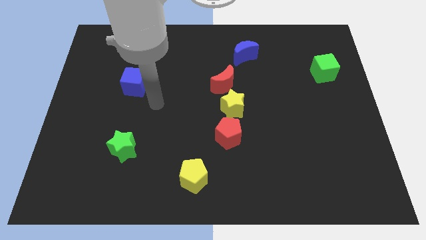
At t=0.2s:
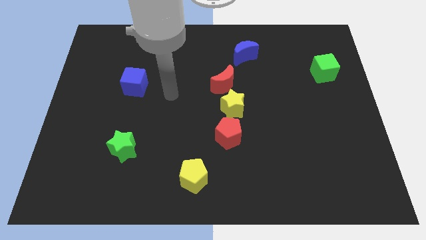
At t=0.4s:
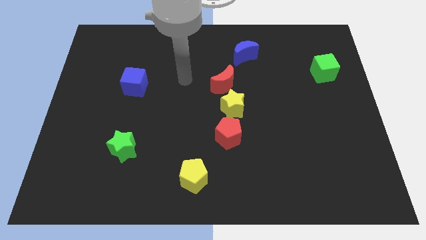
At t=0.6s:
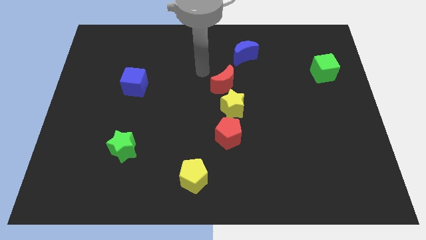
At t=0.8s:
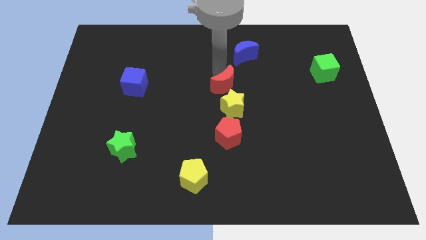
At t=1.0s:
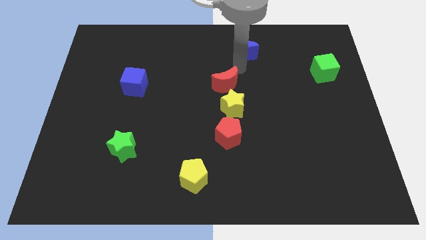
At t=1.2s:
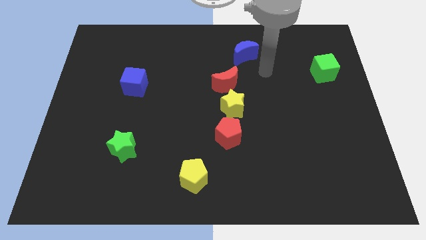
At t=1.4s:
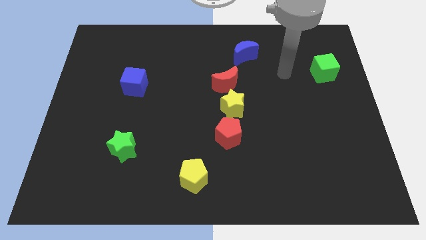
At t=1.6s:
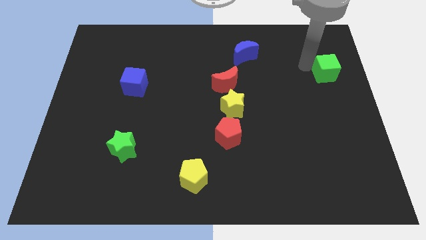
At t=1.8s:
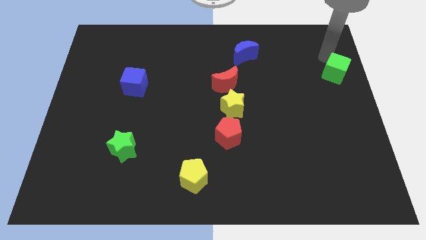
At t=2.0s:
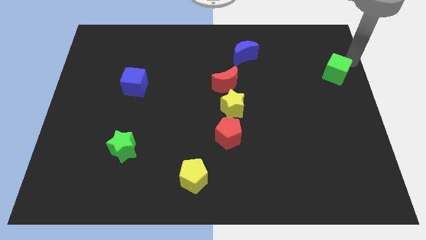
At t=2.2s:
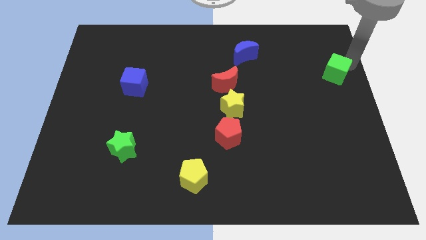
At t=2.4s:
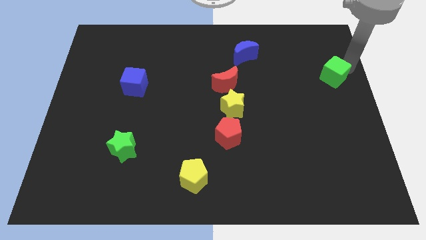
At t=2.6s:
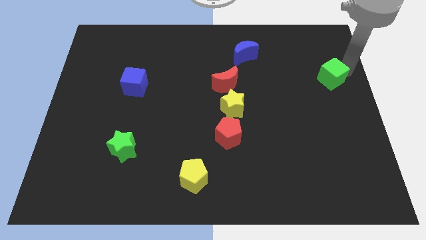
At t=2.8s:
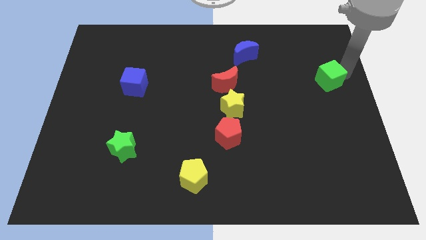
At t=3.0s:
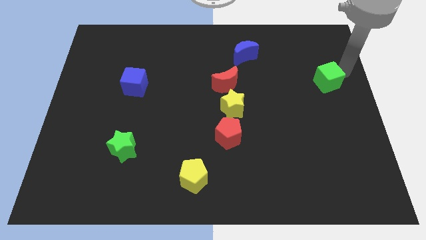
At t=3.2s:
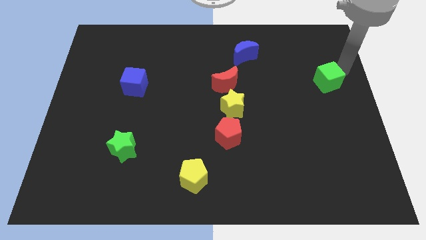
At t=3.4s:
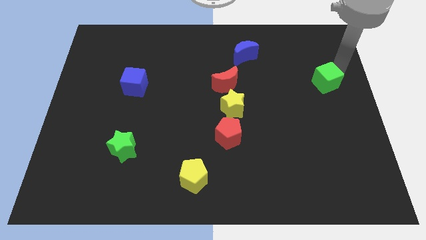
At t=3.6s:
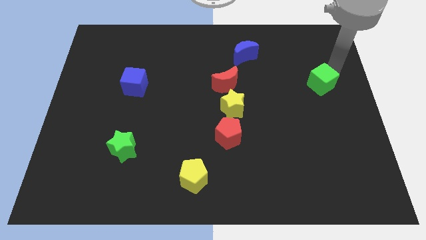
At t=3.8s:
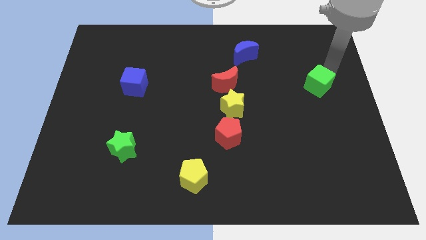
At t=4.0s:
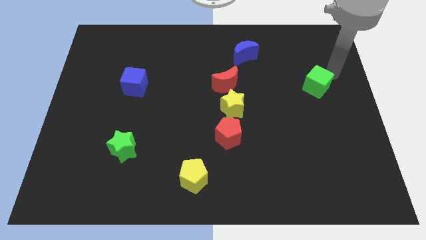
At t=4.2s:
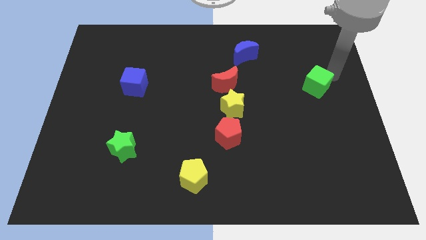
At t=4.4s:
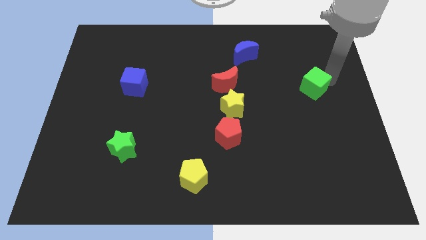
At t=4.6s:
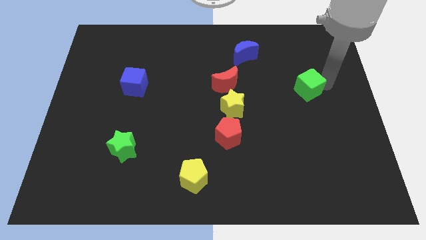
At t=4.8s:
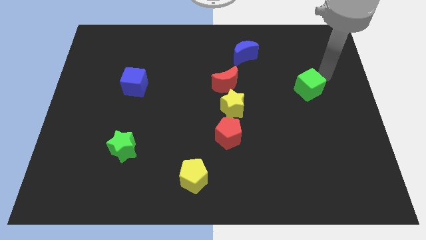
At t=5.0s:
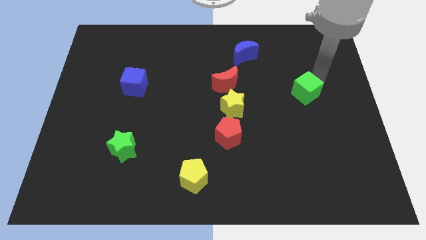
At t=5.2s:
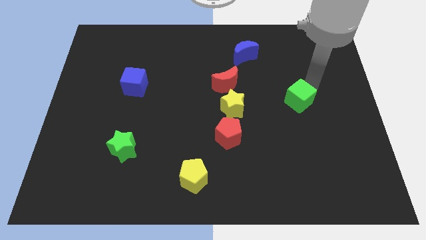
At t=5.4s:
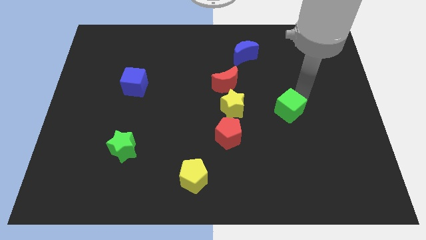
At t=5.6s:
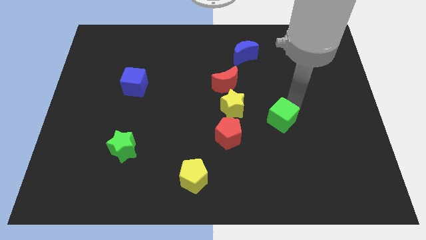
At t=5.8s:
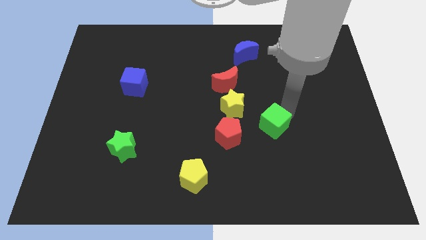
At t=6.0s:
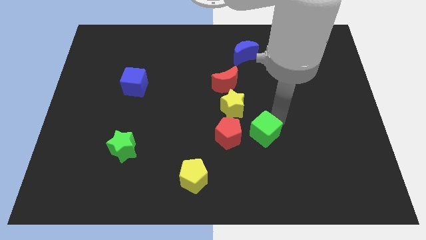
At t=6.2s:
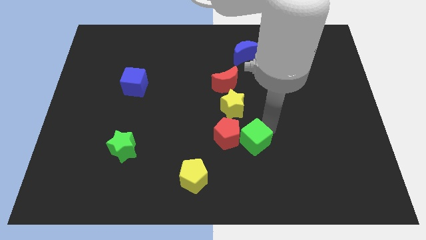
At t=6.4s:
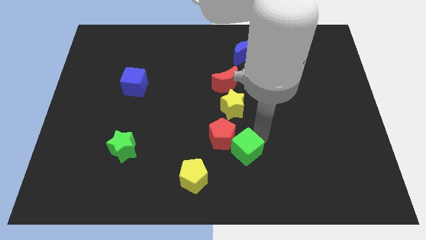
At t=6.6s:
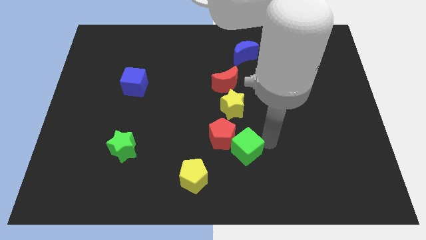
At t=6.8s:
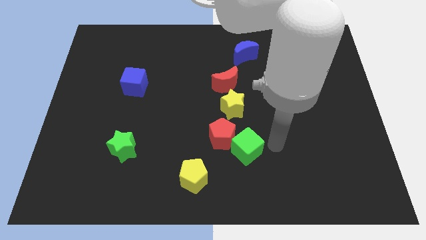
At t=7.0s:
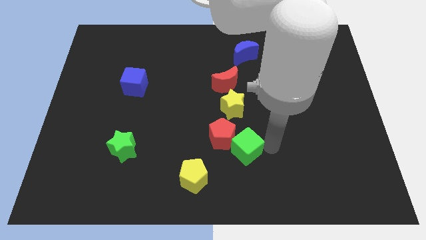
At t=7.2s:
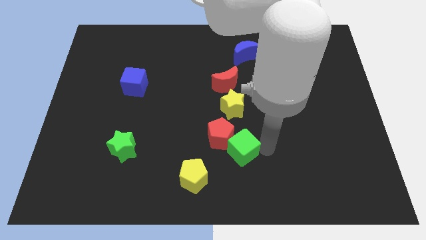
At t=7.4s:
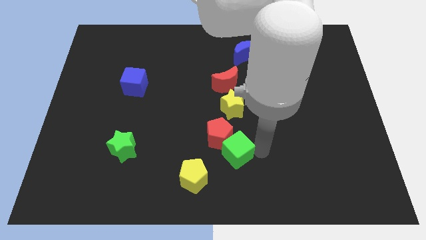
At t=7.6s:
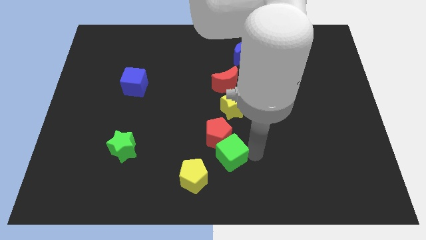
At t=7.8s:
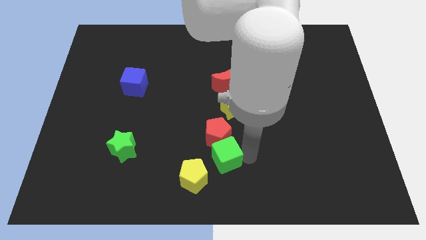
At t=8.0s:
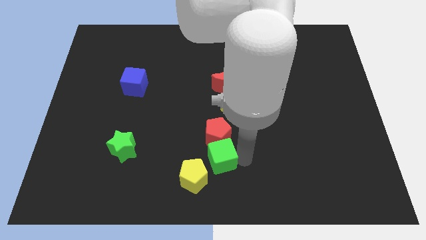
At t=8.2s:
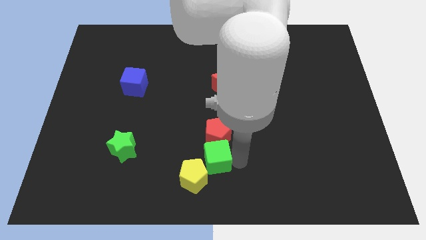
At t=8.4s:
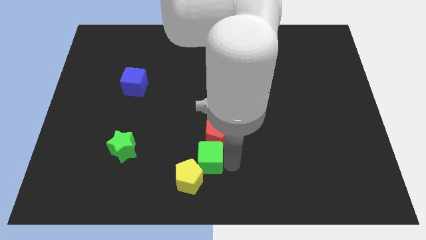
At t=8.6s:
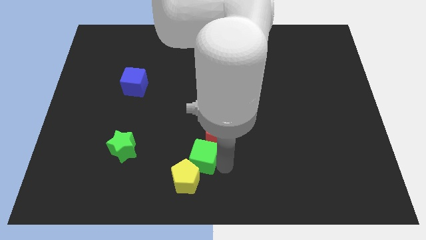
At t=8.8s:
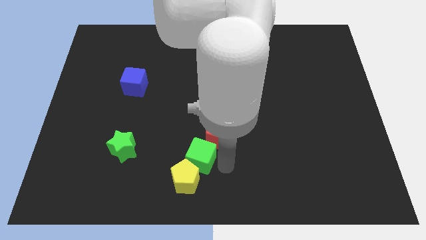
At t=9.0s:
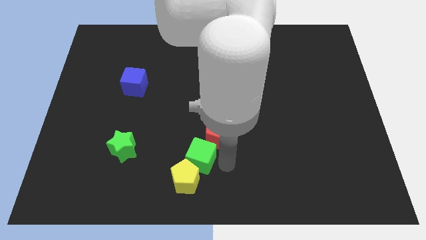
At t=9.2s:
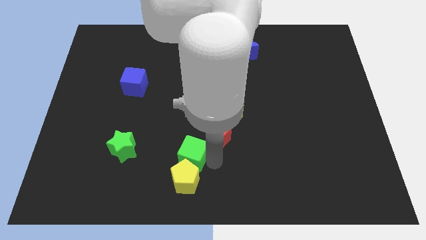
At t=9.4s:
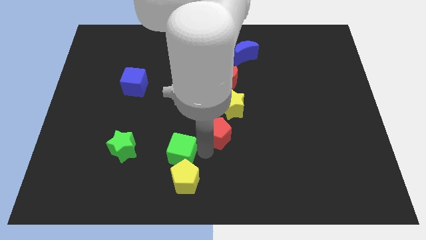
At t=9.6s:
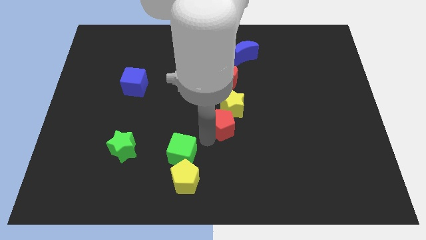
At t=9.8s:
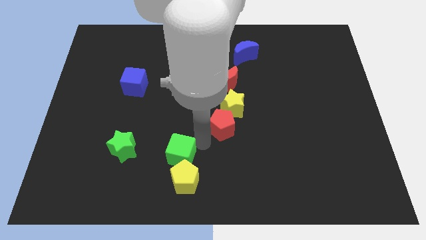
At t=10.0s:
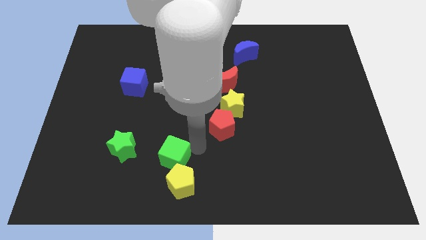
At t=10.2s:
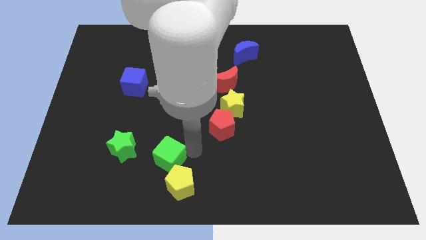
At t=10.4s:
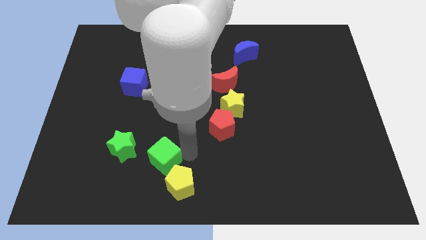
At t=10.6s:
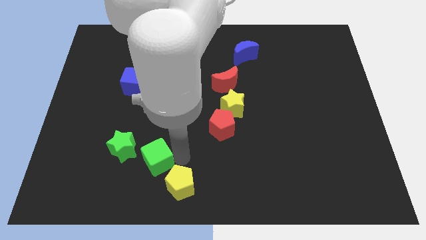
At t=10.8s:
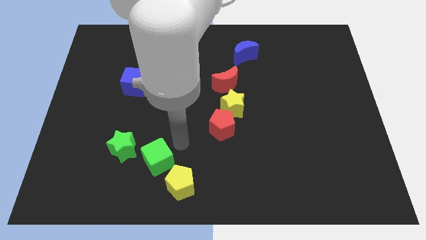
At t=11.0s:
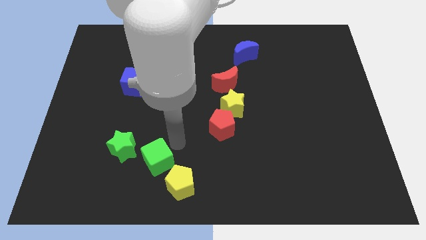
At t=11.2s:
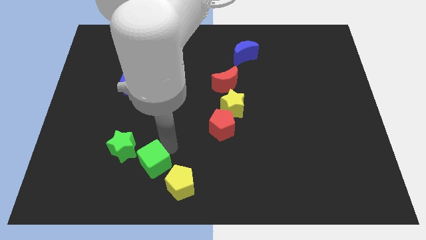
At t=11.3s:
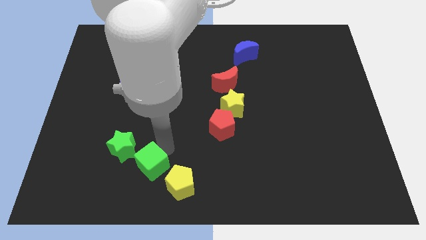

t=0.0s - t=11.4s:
move the green cube to the left side of the yellow pentagon

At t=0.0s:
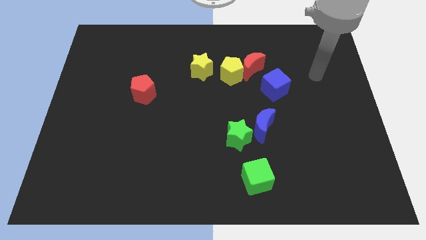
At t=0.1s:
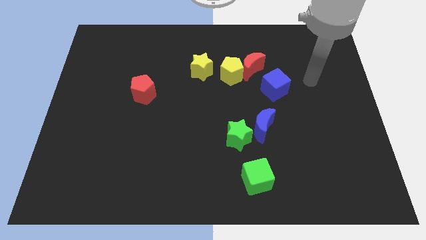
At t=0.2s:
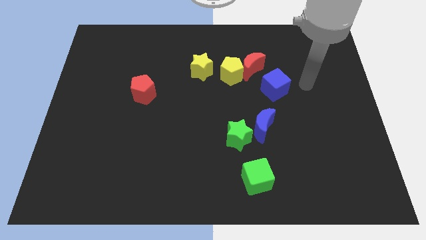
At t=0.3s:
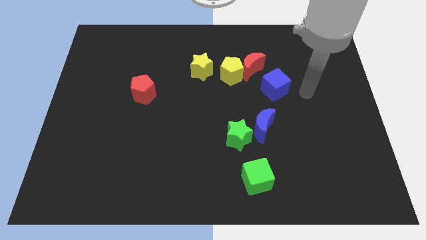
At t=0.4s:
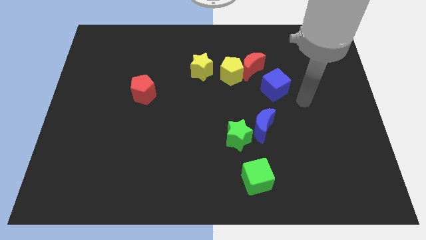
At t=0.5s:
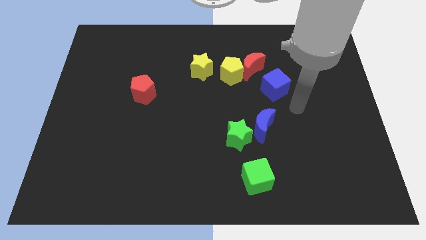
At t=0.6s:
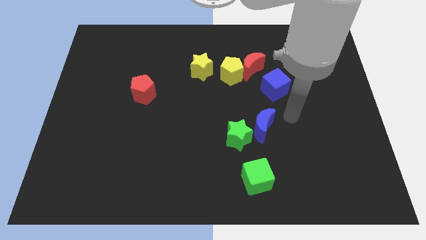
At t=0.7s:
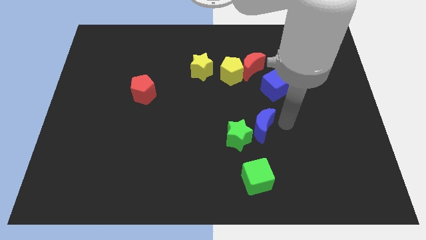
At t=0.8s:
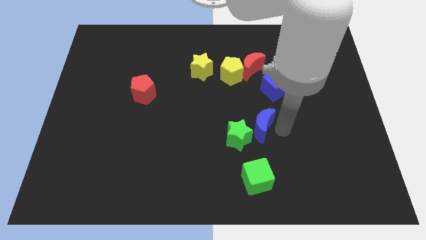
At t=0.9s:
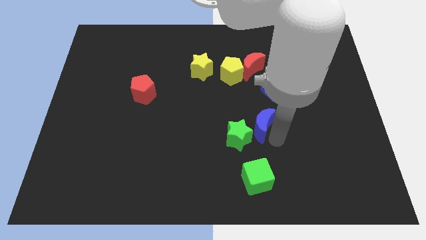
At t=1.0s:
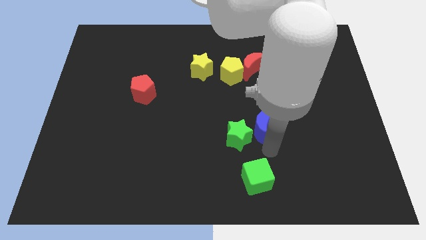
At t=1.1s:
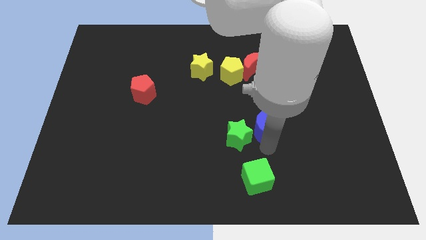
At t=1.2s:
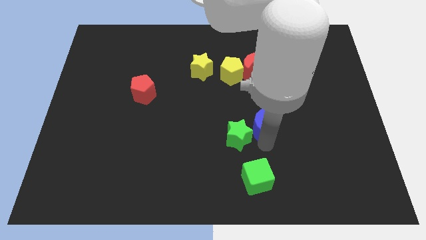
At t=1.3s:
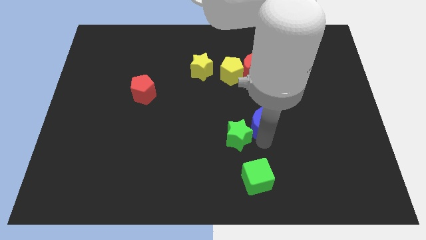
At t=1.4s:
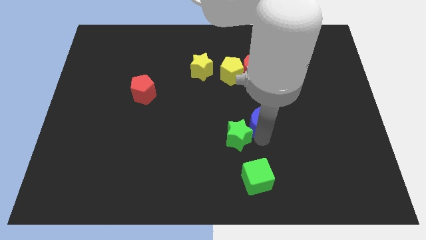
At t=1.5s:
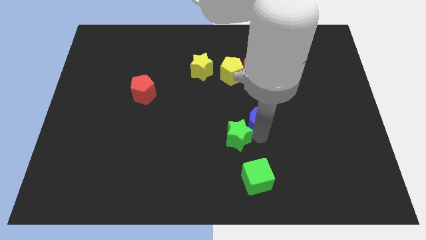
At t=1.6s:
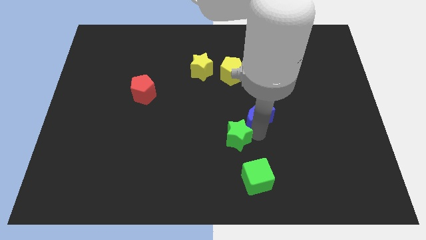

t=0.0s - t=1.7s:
move the blue moon to the bottom side of the red moon
